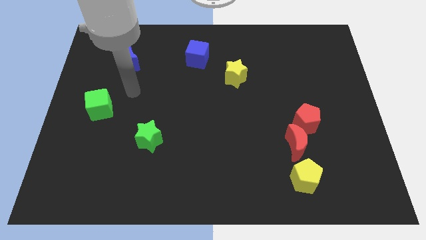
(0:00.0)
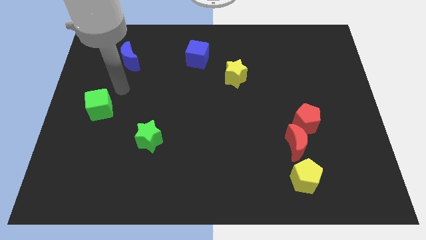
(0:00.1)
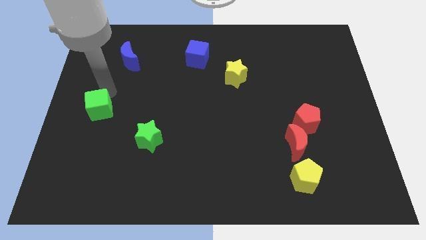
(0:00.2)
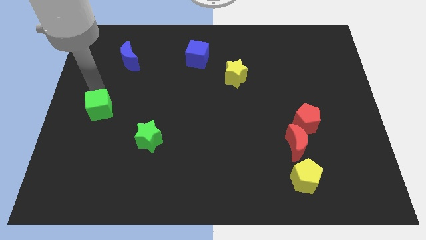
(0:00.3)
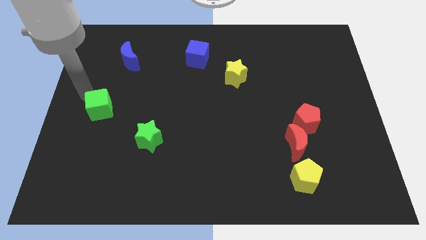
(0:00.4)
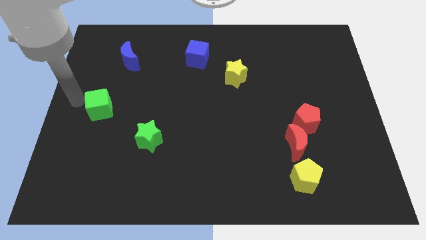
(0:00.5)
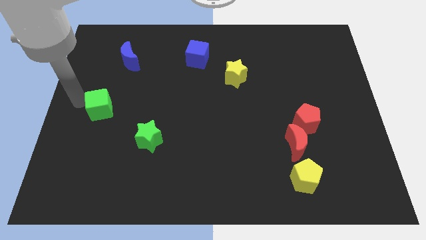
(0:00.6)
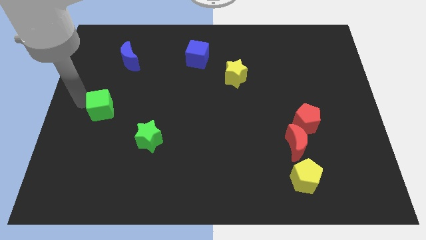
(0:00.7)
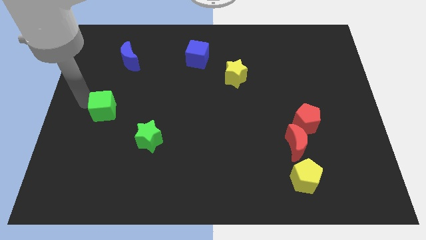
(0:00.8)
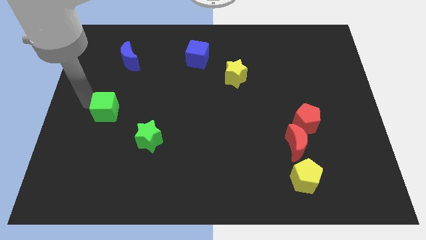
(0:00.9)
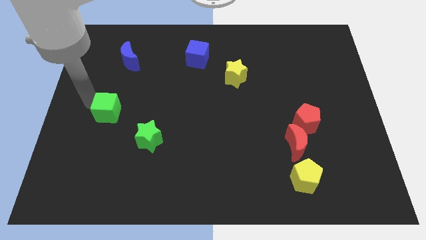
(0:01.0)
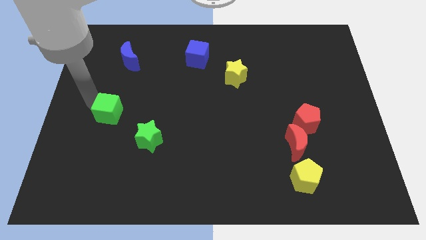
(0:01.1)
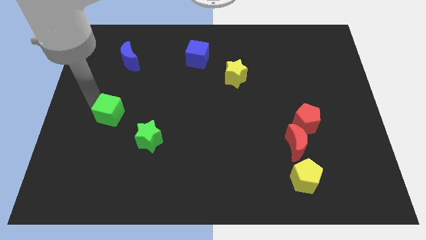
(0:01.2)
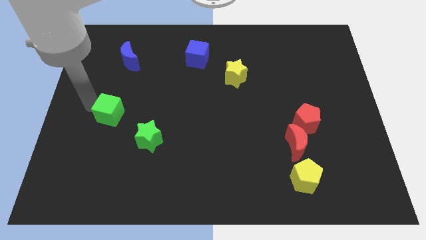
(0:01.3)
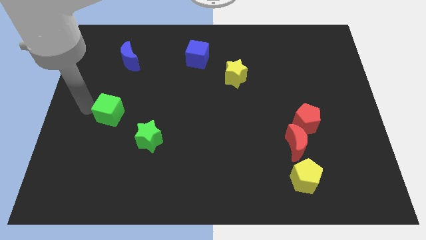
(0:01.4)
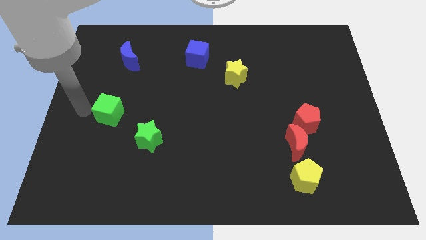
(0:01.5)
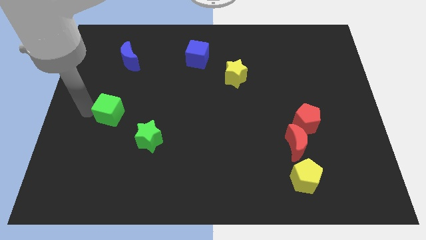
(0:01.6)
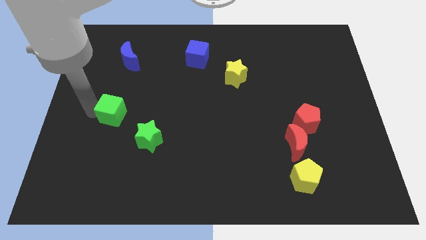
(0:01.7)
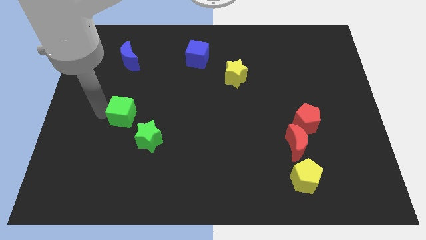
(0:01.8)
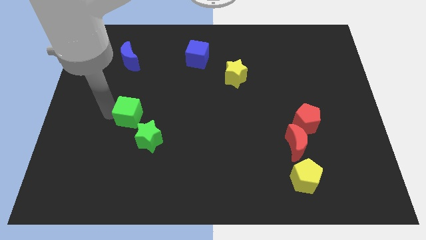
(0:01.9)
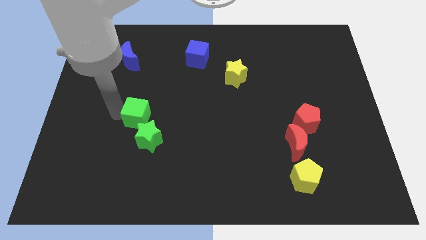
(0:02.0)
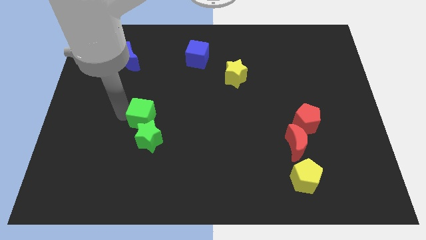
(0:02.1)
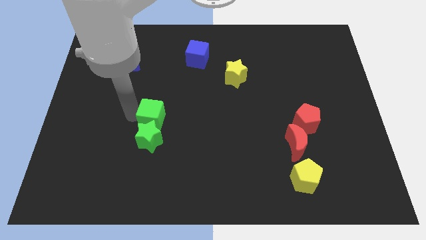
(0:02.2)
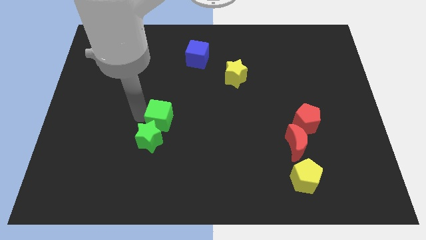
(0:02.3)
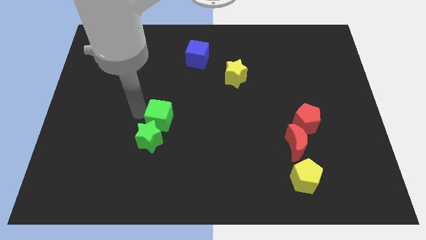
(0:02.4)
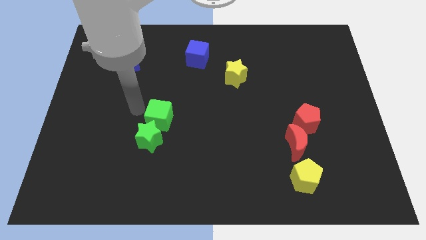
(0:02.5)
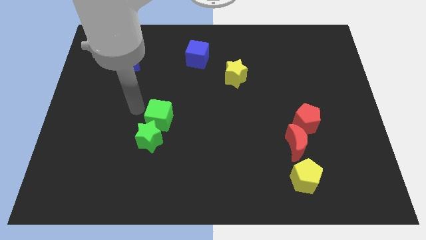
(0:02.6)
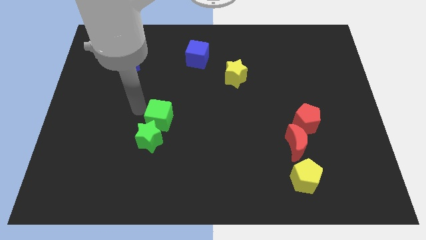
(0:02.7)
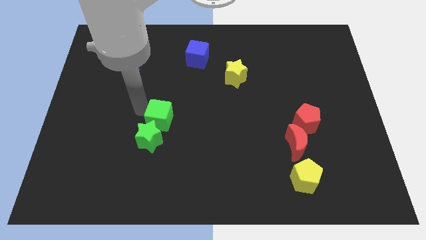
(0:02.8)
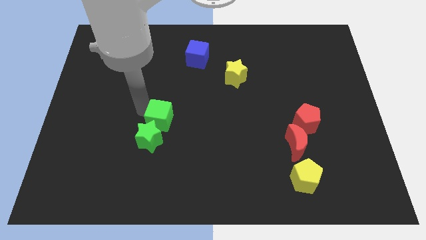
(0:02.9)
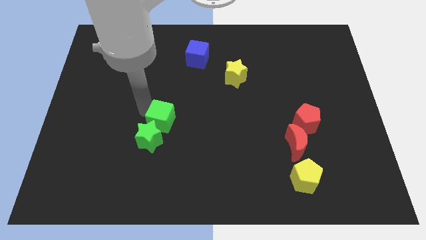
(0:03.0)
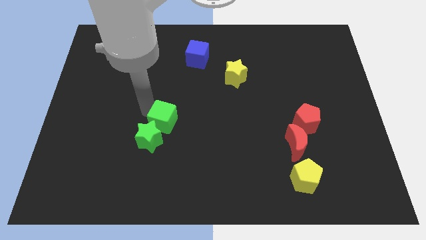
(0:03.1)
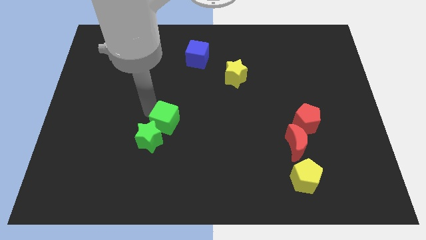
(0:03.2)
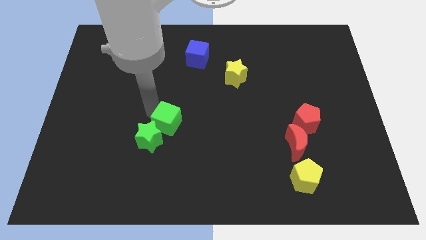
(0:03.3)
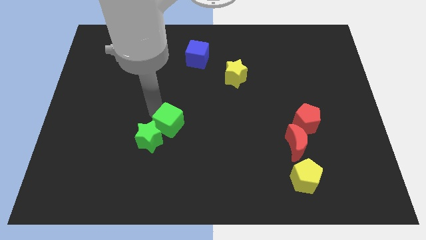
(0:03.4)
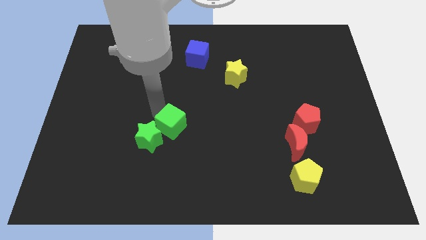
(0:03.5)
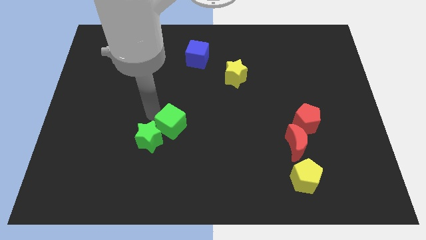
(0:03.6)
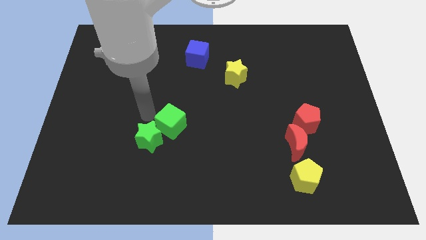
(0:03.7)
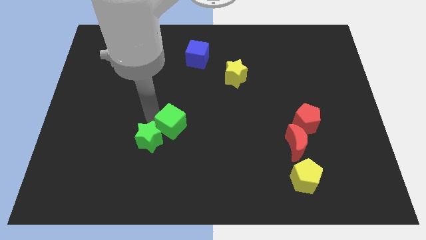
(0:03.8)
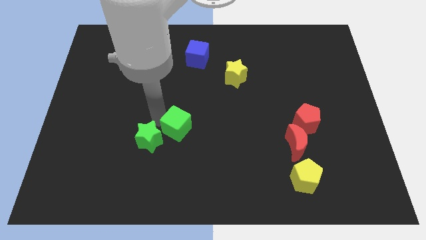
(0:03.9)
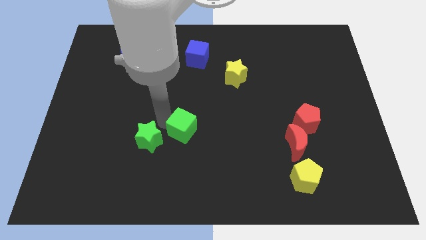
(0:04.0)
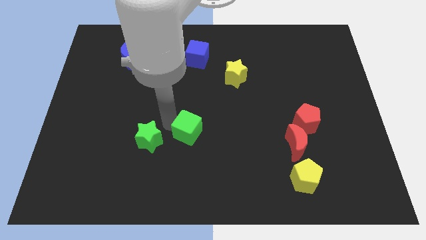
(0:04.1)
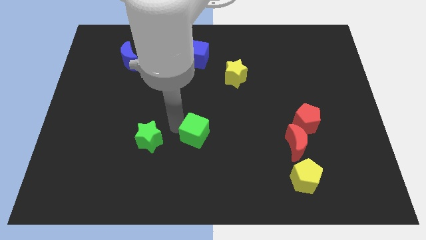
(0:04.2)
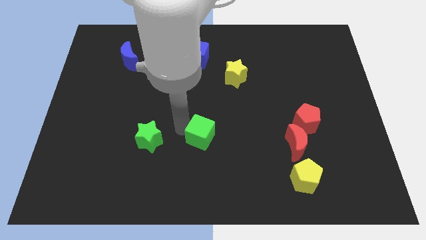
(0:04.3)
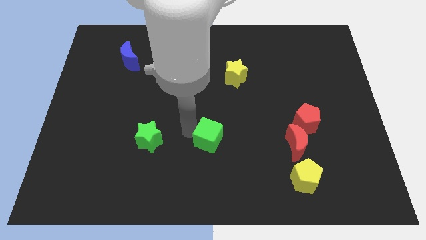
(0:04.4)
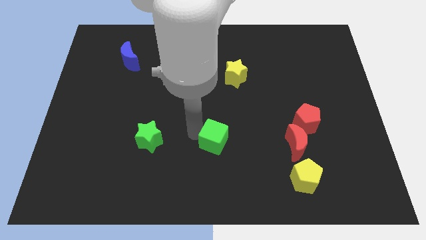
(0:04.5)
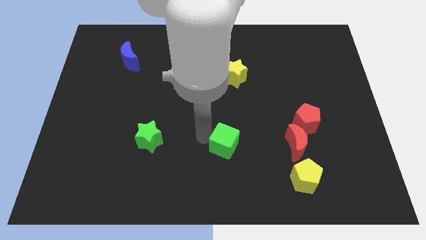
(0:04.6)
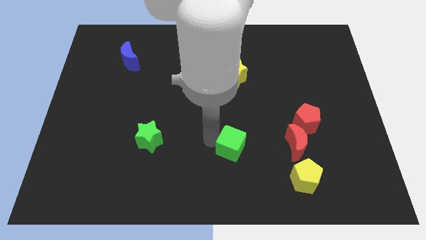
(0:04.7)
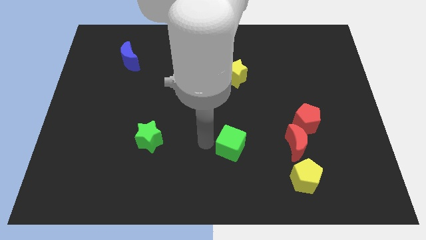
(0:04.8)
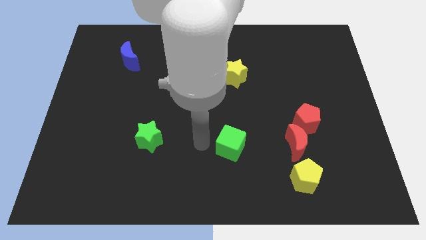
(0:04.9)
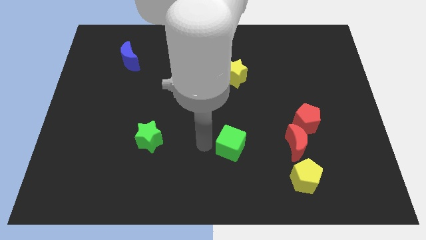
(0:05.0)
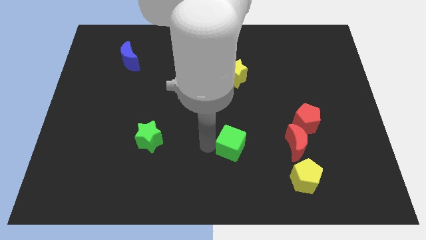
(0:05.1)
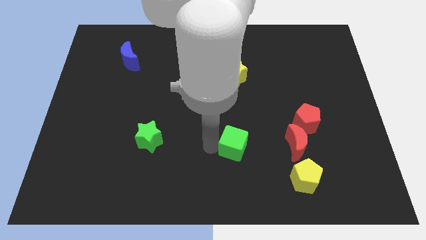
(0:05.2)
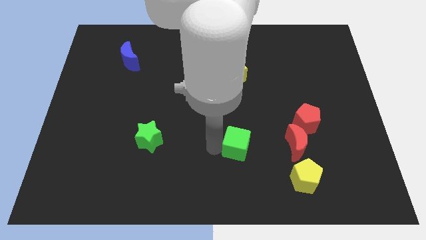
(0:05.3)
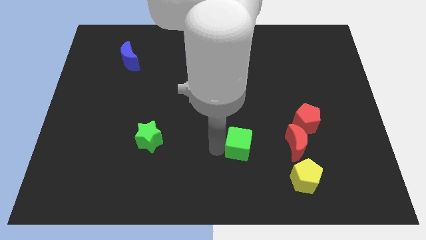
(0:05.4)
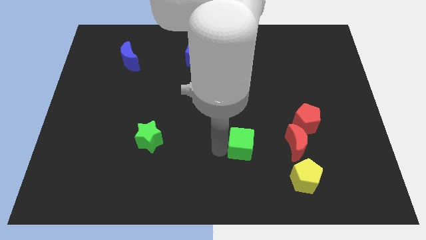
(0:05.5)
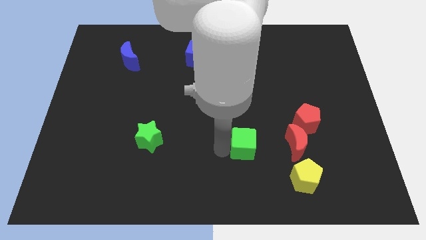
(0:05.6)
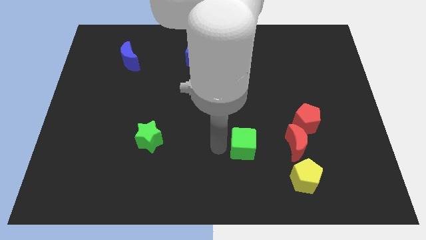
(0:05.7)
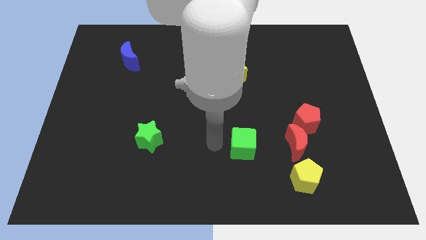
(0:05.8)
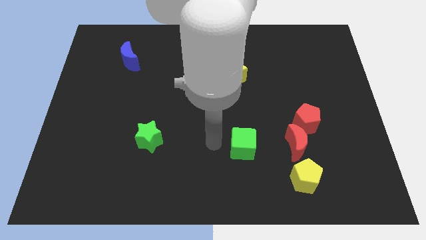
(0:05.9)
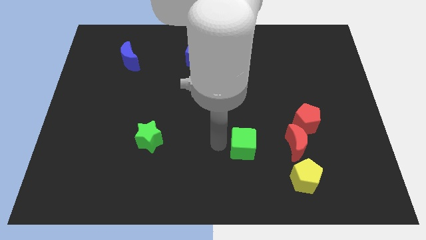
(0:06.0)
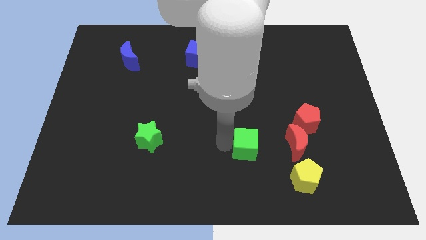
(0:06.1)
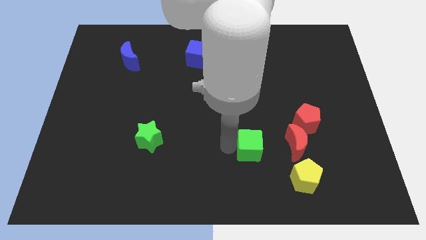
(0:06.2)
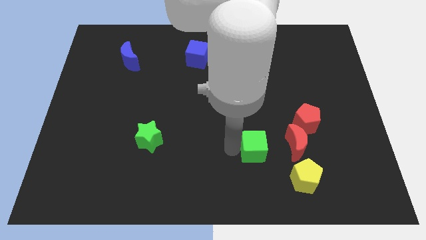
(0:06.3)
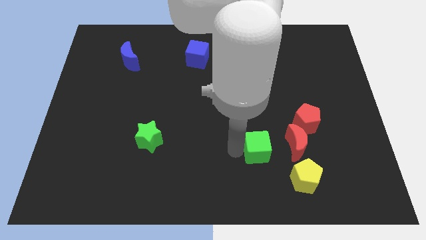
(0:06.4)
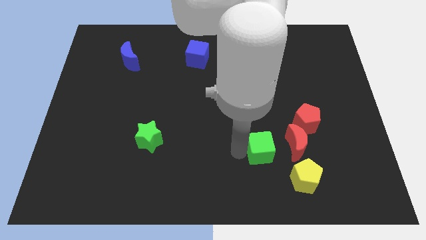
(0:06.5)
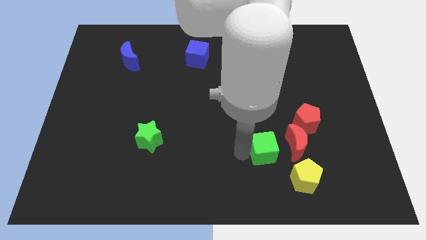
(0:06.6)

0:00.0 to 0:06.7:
move the green cube to the bottom left side of the red pentagon

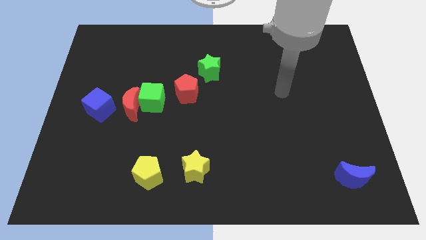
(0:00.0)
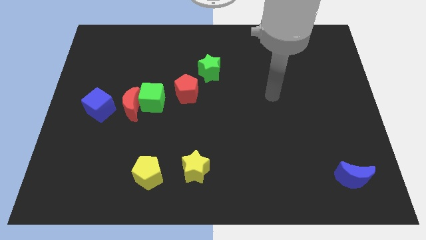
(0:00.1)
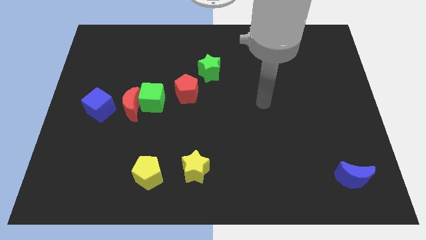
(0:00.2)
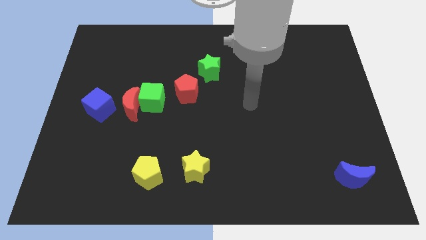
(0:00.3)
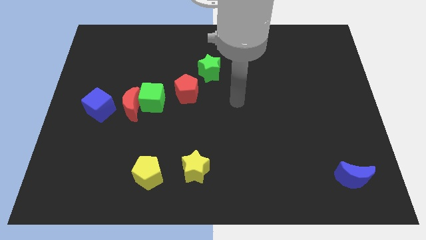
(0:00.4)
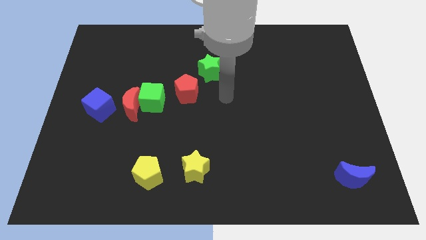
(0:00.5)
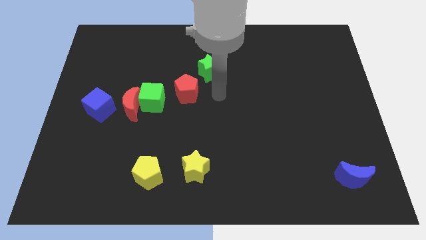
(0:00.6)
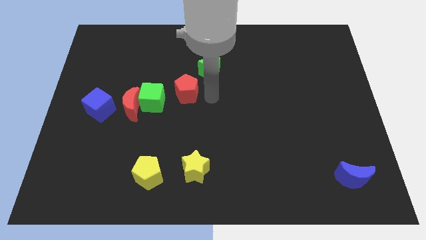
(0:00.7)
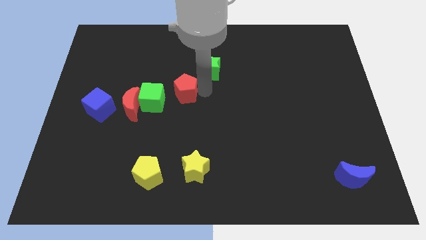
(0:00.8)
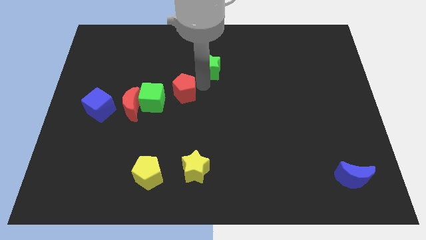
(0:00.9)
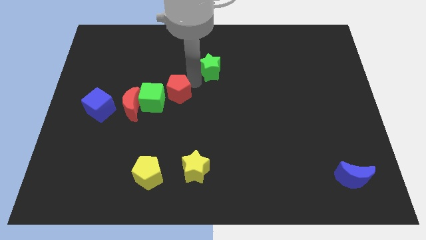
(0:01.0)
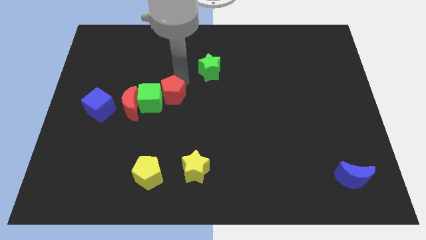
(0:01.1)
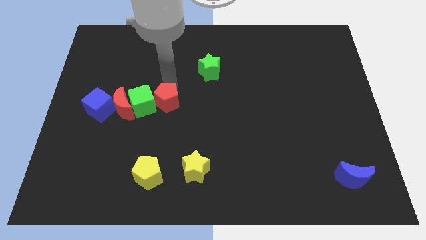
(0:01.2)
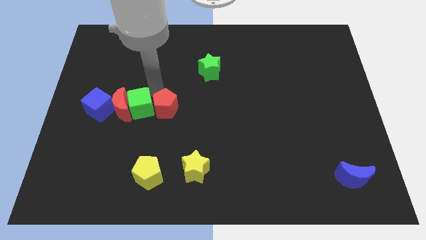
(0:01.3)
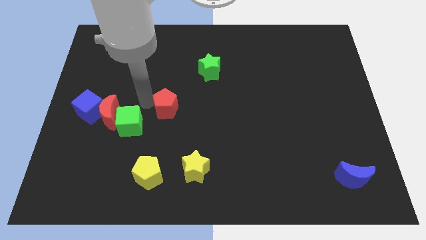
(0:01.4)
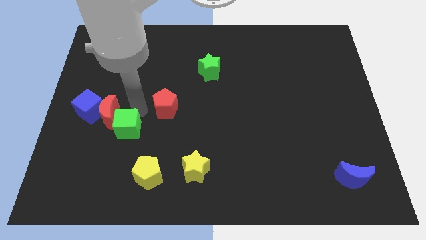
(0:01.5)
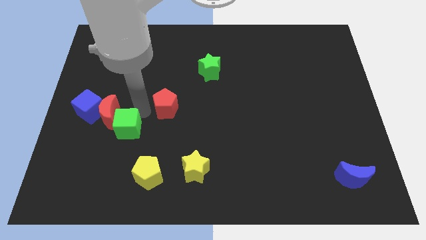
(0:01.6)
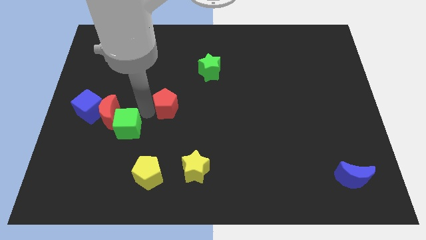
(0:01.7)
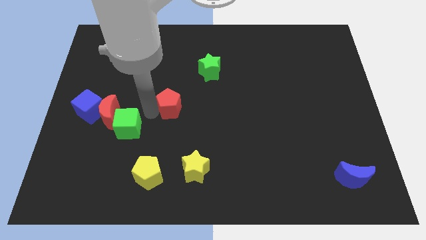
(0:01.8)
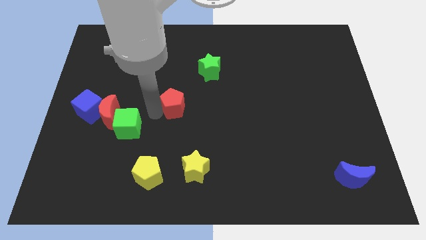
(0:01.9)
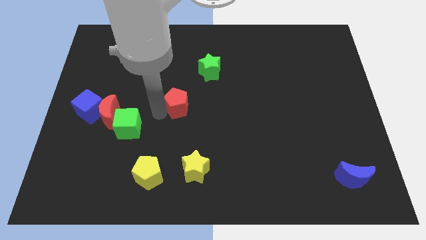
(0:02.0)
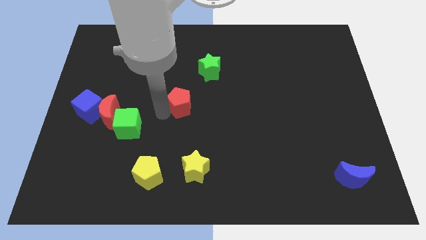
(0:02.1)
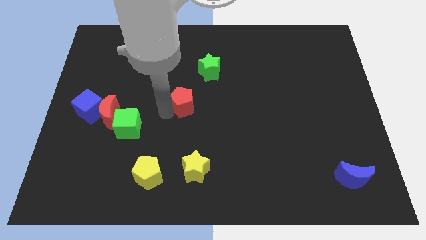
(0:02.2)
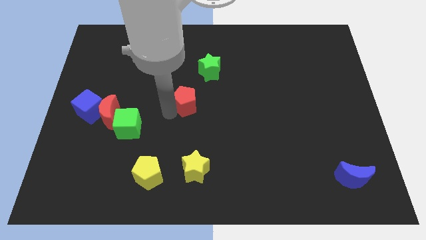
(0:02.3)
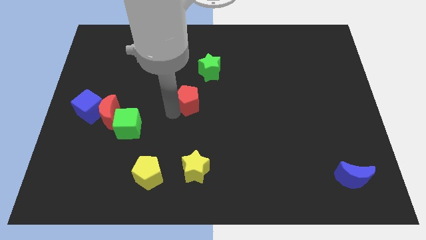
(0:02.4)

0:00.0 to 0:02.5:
slide the red pentagon to the bottom side of the green star
